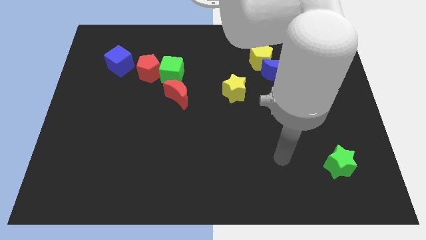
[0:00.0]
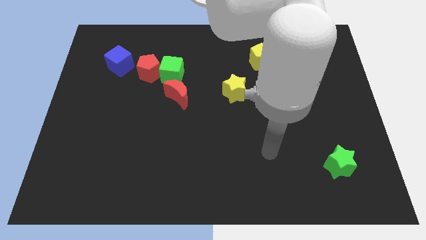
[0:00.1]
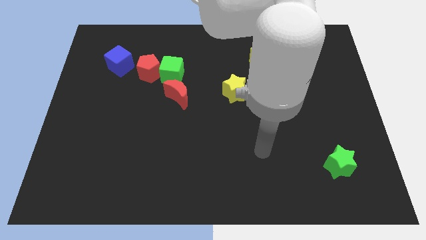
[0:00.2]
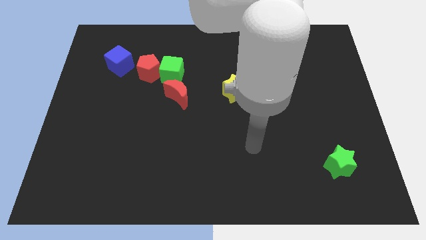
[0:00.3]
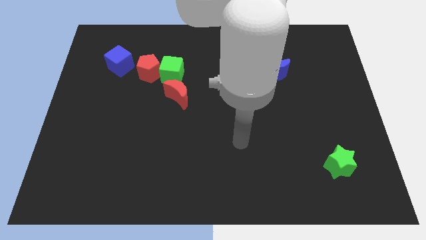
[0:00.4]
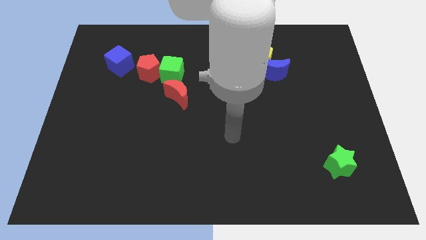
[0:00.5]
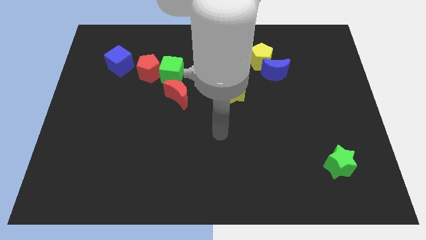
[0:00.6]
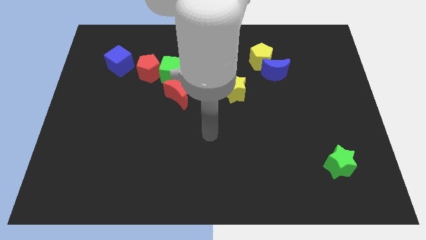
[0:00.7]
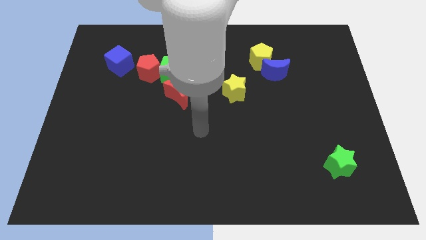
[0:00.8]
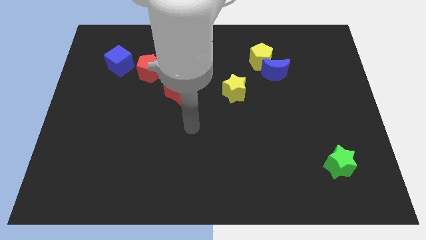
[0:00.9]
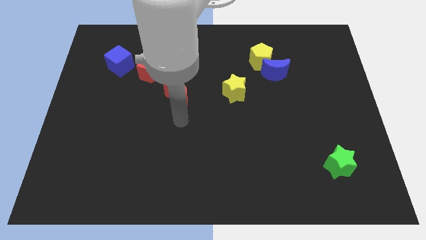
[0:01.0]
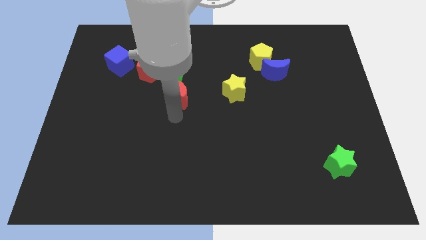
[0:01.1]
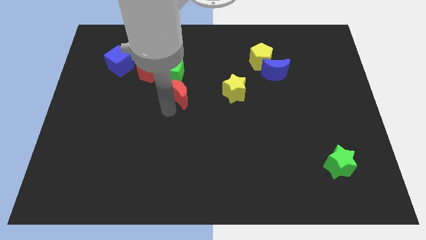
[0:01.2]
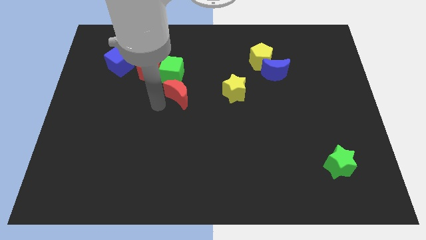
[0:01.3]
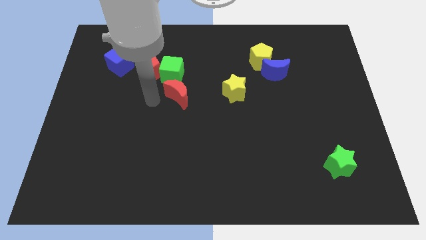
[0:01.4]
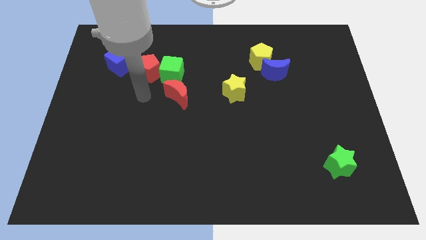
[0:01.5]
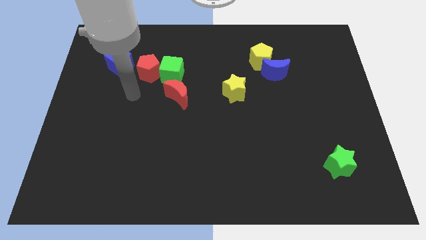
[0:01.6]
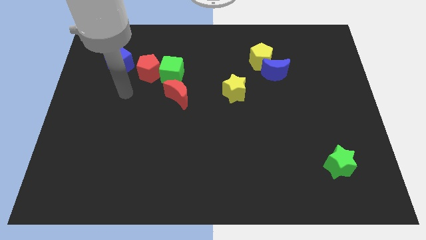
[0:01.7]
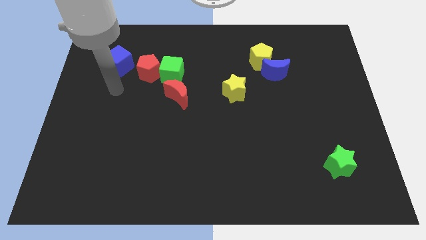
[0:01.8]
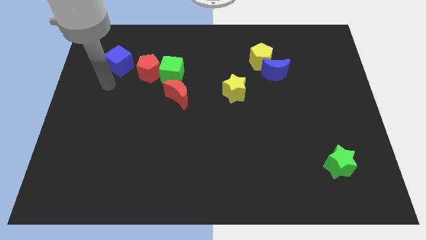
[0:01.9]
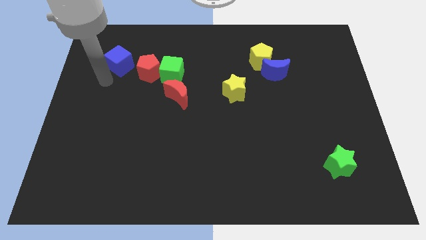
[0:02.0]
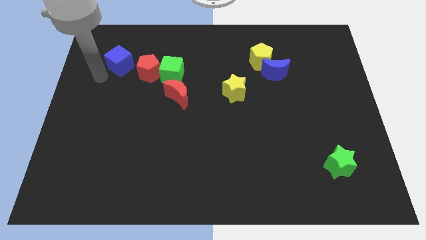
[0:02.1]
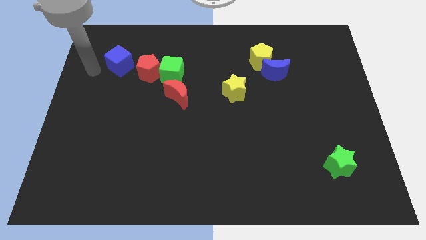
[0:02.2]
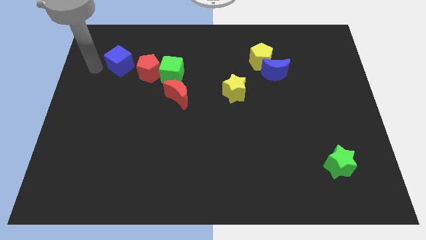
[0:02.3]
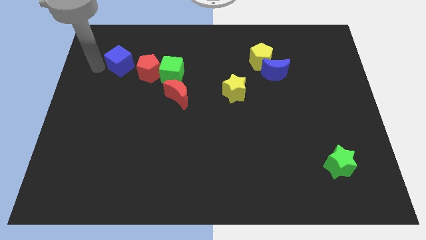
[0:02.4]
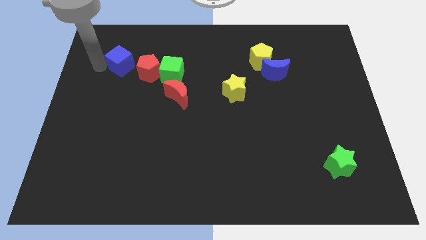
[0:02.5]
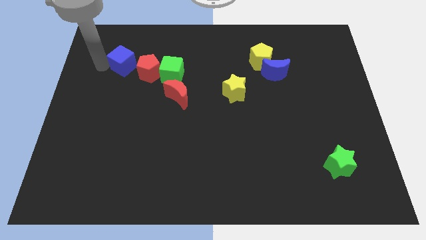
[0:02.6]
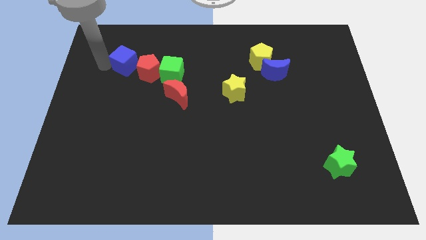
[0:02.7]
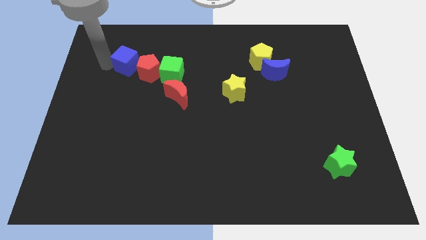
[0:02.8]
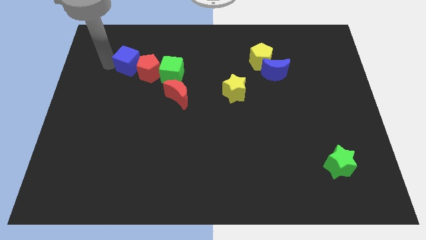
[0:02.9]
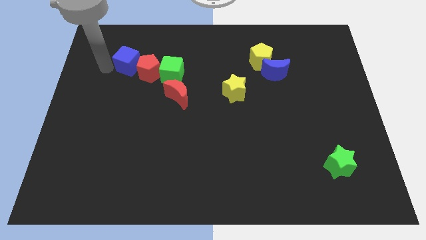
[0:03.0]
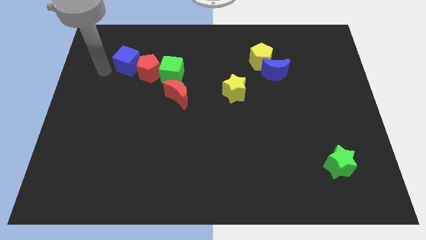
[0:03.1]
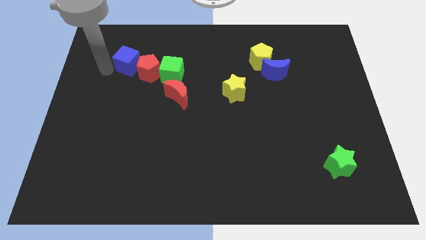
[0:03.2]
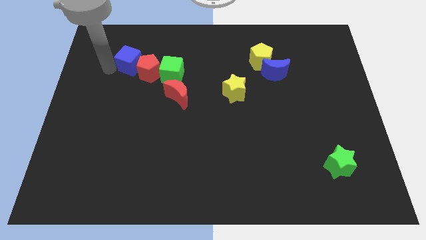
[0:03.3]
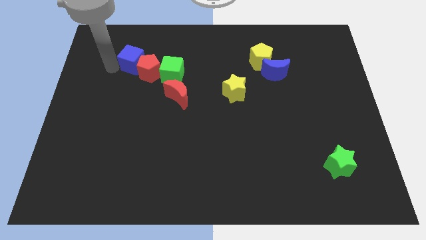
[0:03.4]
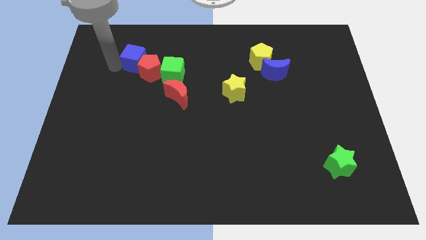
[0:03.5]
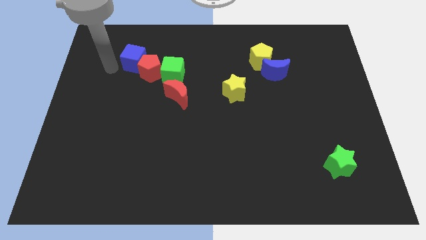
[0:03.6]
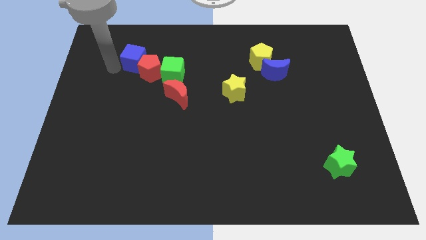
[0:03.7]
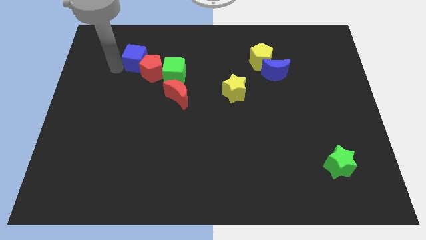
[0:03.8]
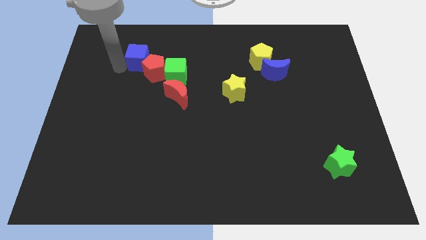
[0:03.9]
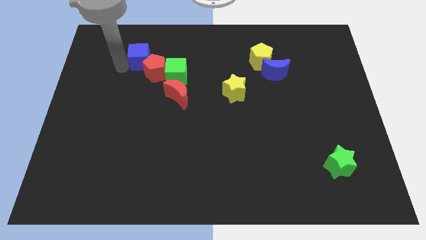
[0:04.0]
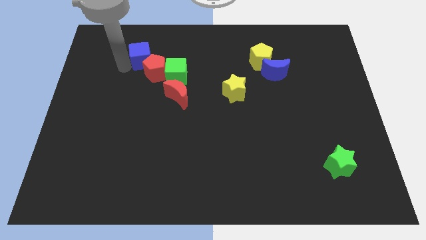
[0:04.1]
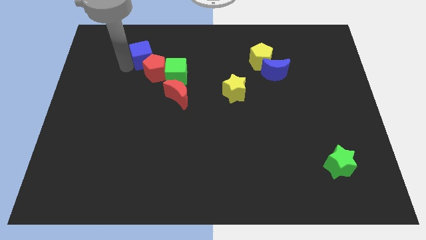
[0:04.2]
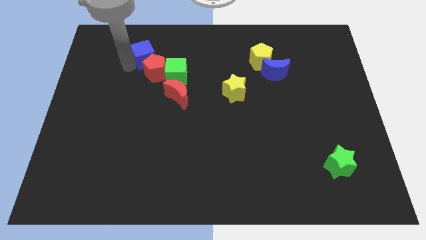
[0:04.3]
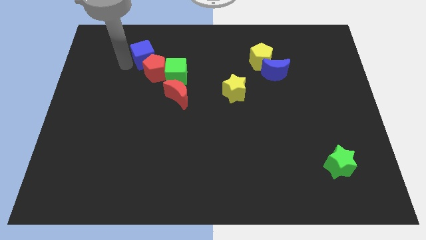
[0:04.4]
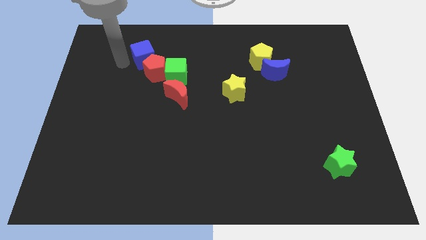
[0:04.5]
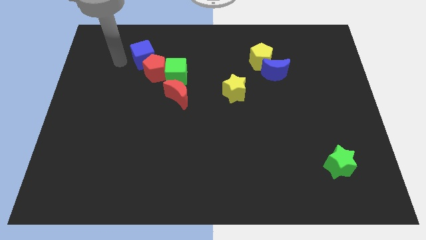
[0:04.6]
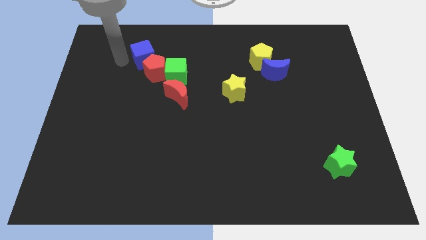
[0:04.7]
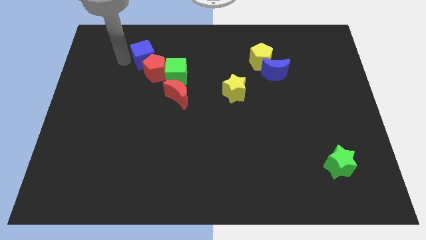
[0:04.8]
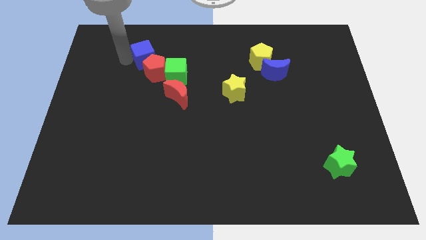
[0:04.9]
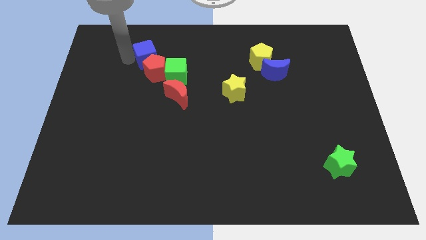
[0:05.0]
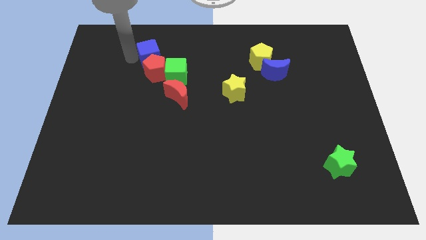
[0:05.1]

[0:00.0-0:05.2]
move the blue cube to the right a bit

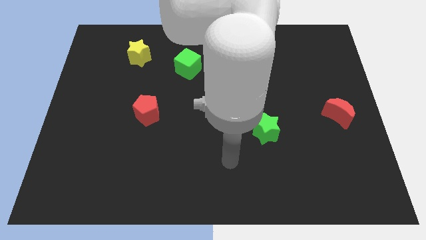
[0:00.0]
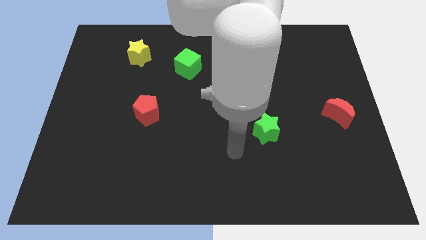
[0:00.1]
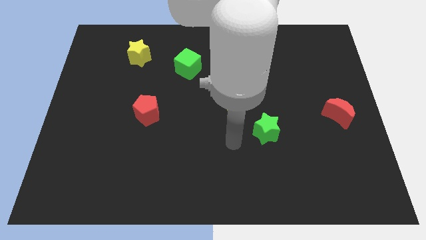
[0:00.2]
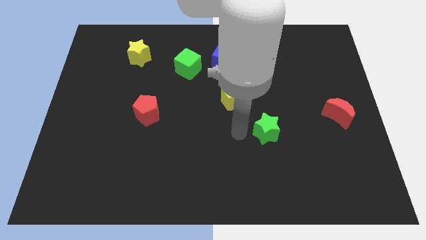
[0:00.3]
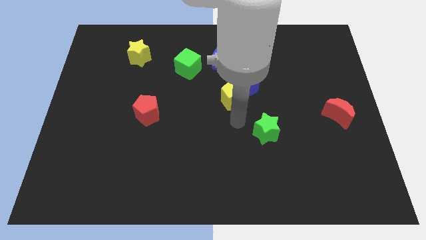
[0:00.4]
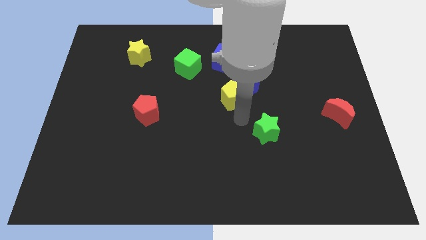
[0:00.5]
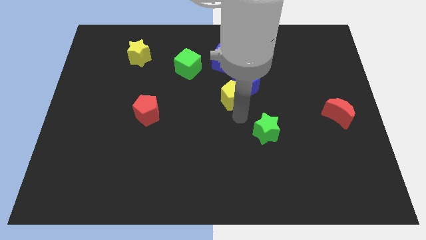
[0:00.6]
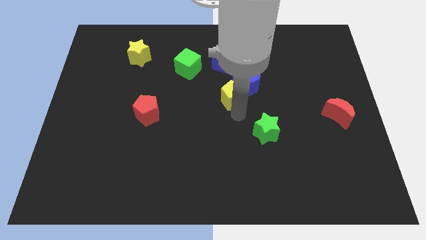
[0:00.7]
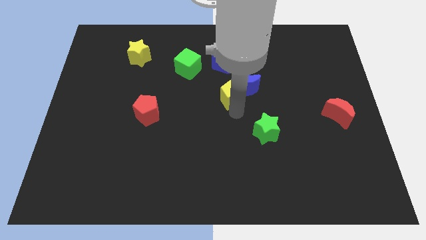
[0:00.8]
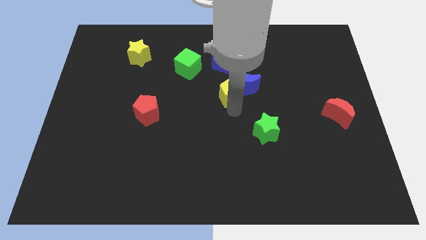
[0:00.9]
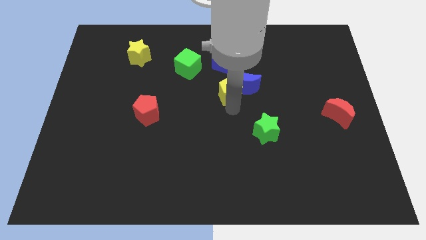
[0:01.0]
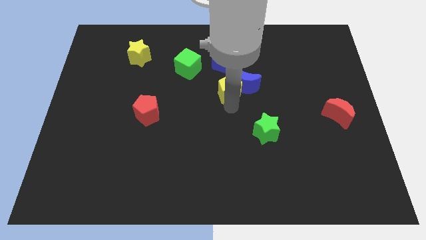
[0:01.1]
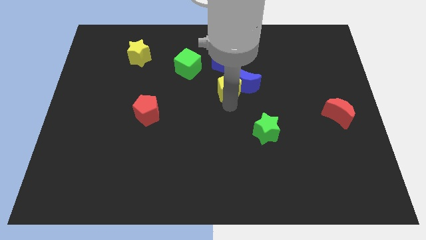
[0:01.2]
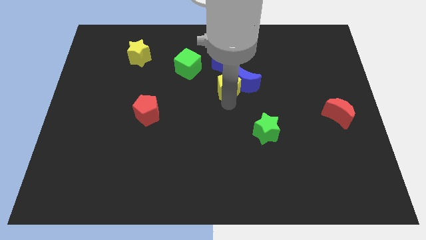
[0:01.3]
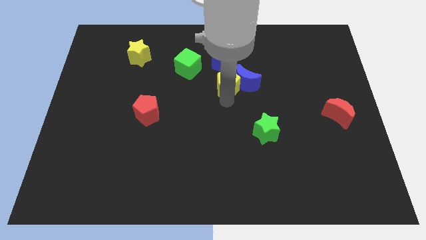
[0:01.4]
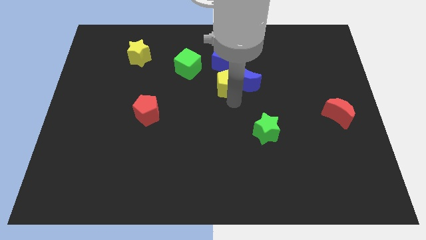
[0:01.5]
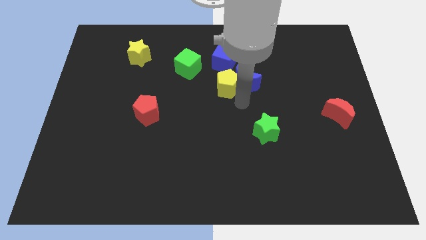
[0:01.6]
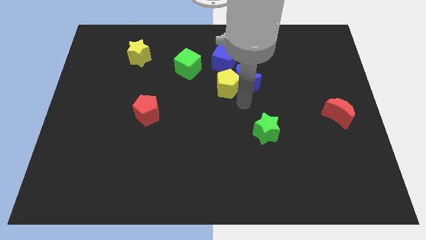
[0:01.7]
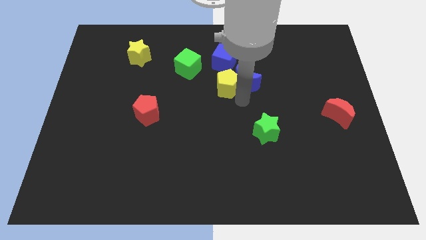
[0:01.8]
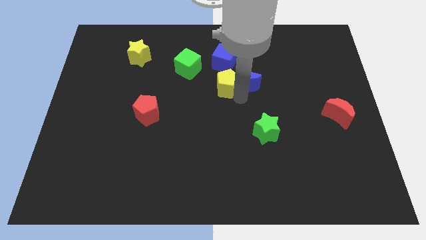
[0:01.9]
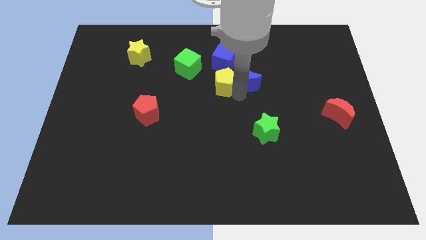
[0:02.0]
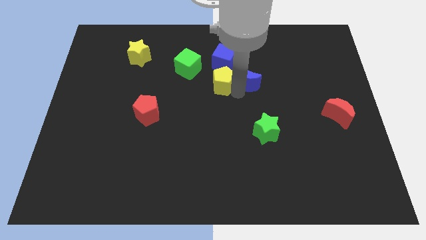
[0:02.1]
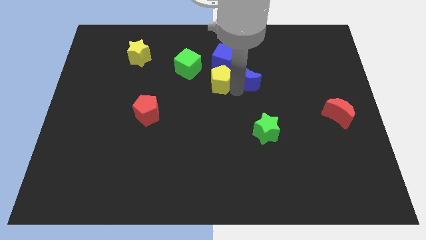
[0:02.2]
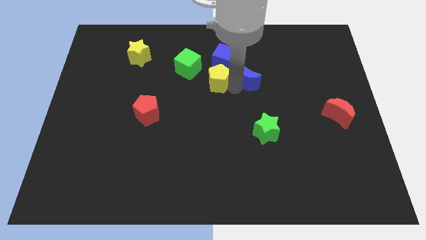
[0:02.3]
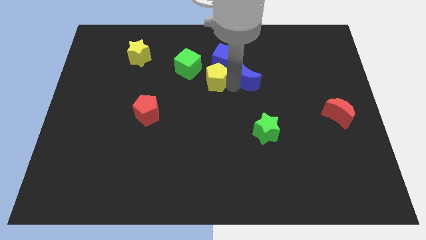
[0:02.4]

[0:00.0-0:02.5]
slide the yellow pentagon somewhat up and then to the left

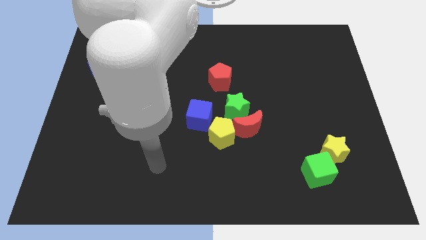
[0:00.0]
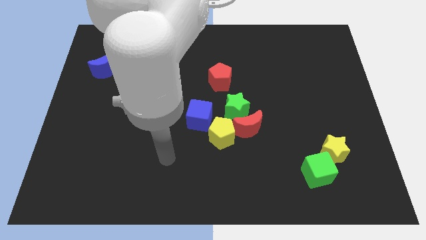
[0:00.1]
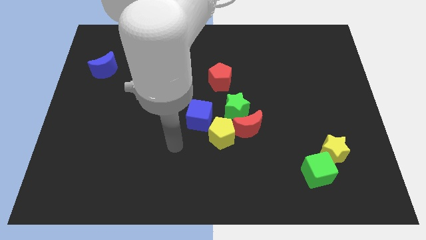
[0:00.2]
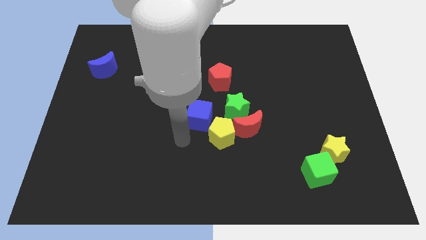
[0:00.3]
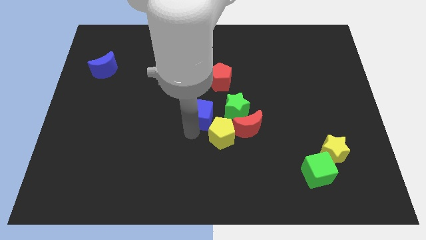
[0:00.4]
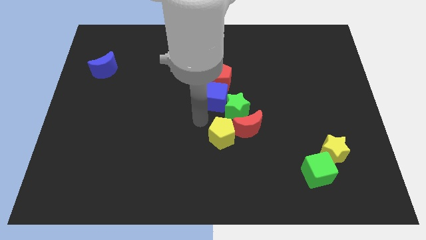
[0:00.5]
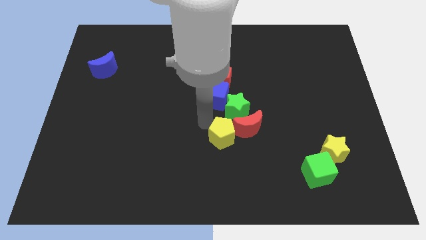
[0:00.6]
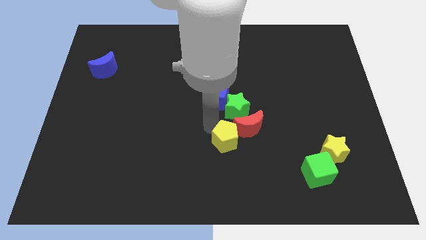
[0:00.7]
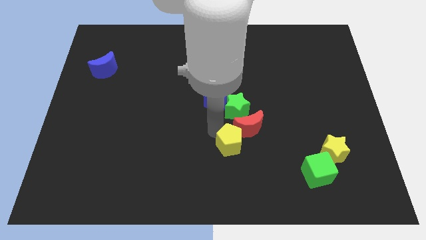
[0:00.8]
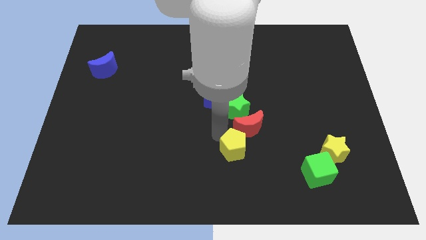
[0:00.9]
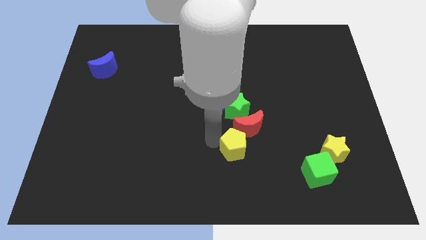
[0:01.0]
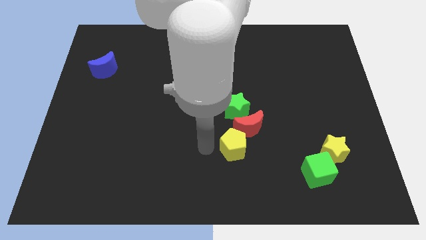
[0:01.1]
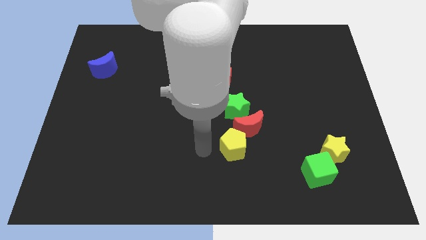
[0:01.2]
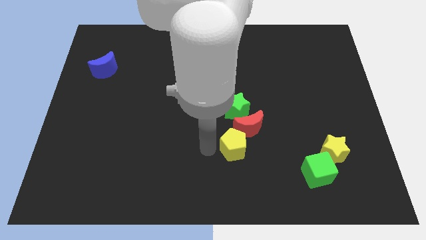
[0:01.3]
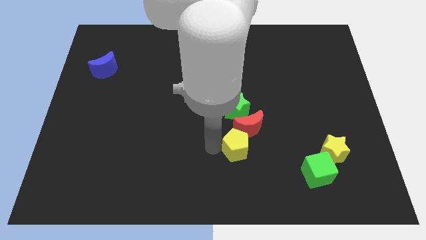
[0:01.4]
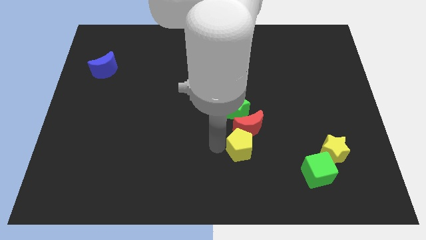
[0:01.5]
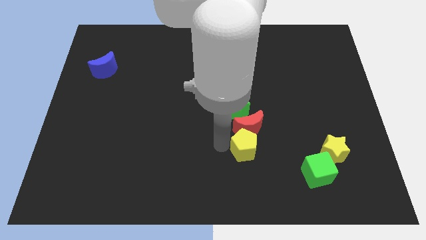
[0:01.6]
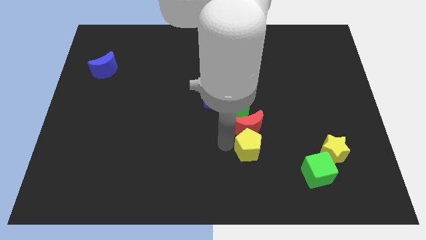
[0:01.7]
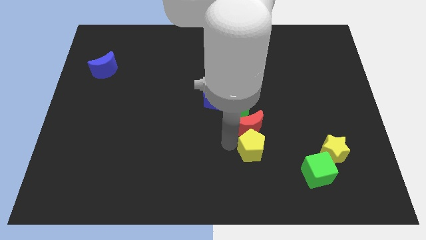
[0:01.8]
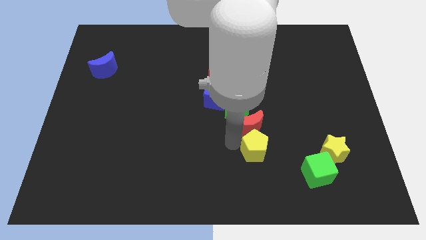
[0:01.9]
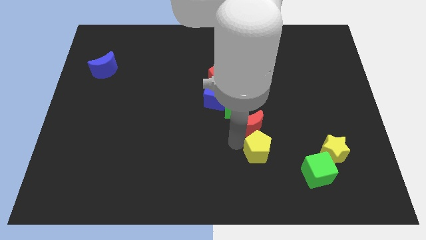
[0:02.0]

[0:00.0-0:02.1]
move the yellow pentagon slightly right
